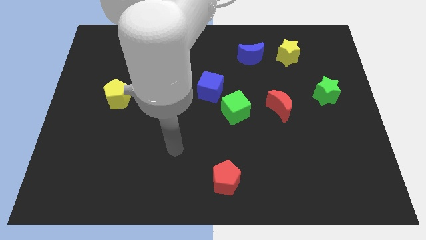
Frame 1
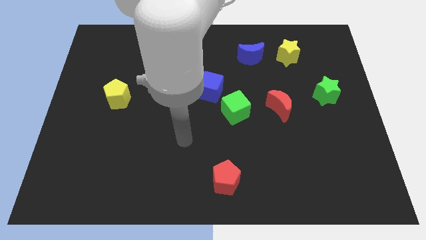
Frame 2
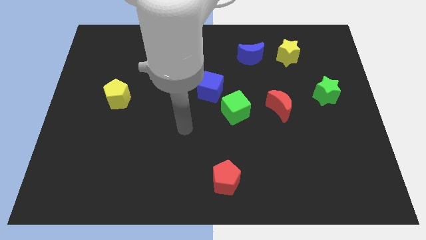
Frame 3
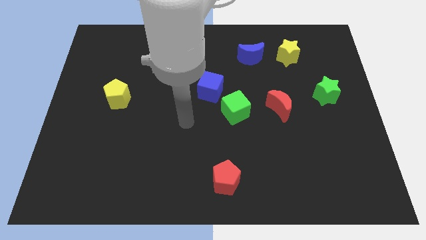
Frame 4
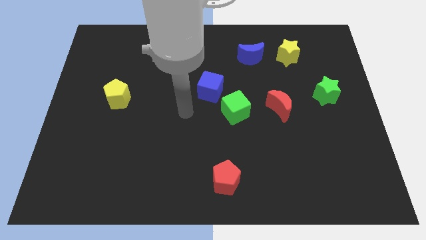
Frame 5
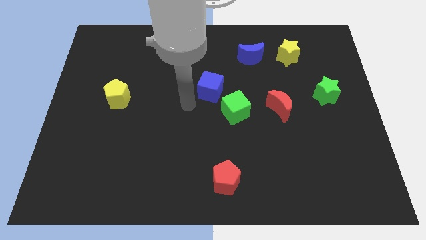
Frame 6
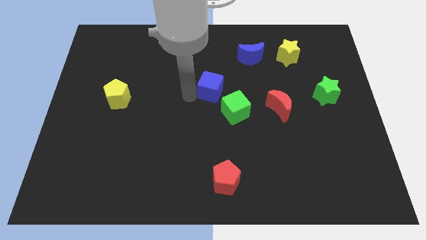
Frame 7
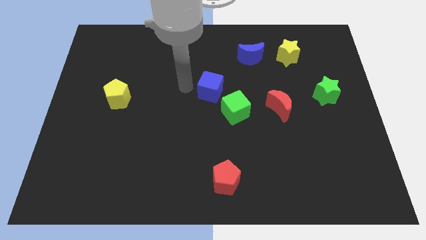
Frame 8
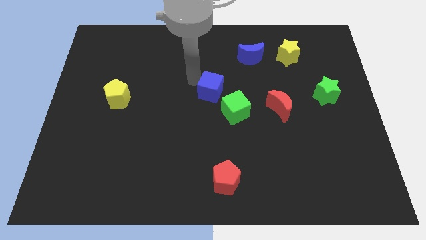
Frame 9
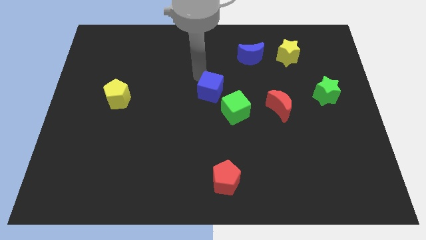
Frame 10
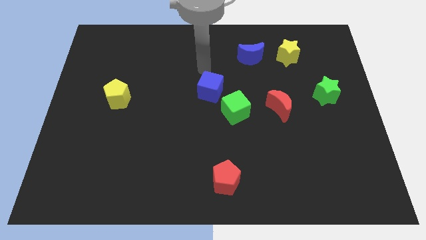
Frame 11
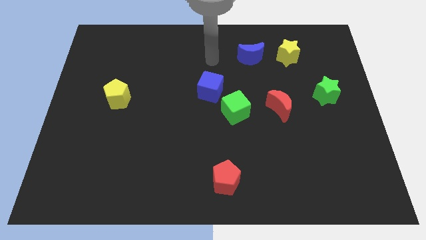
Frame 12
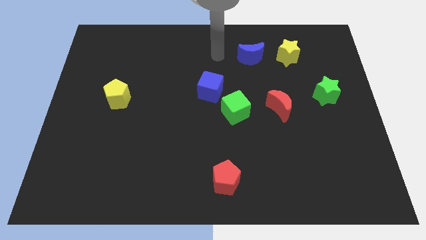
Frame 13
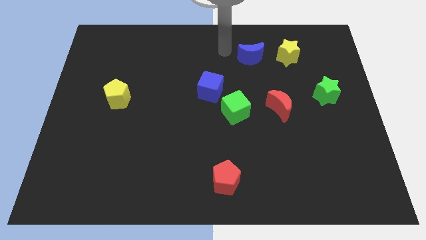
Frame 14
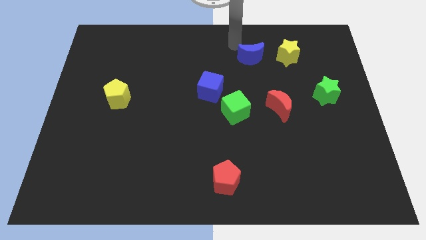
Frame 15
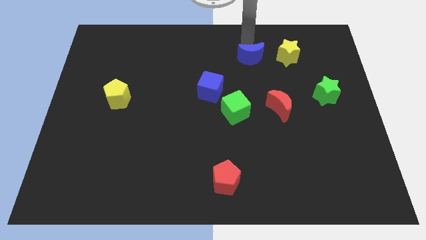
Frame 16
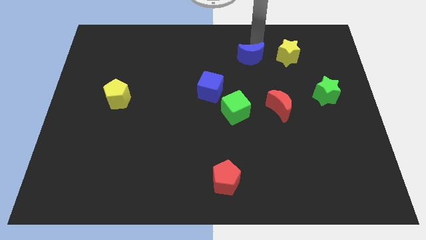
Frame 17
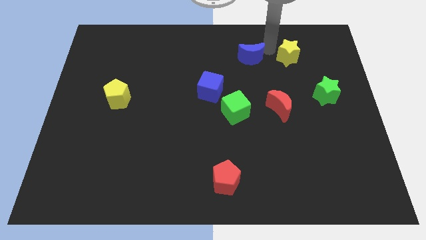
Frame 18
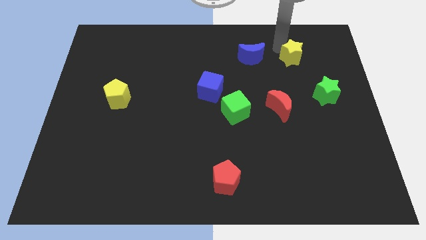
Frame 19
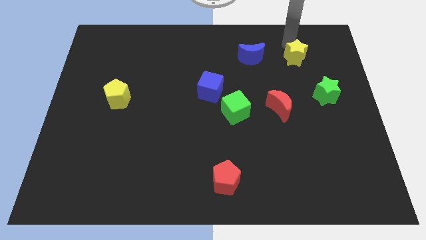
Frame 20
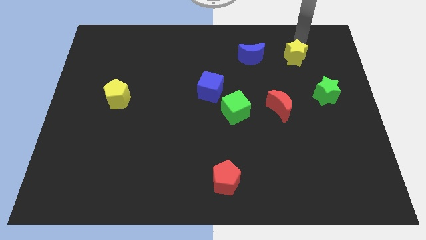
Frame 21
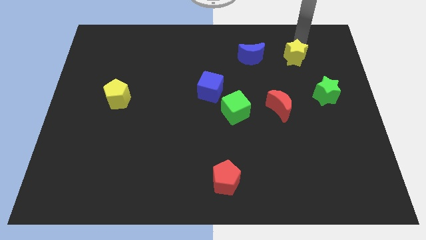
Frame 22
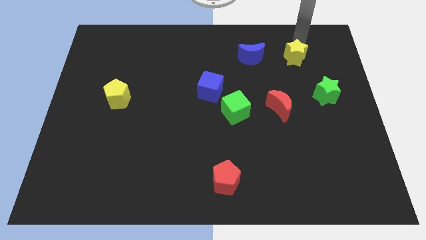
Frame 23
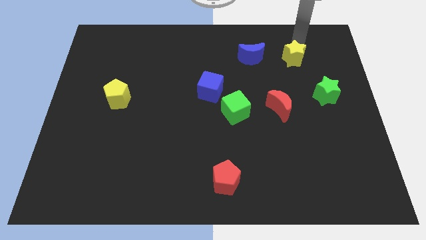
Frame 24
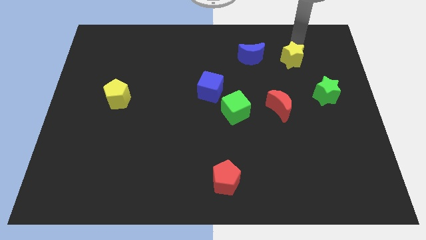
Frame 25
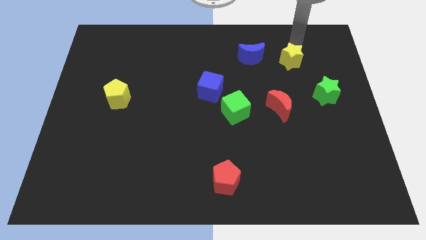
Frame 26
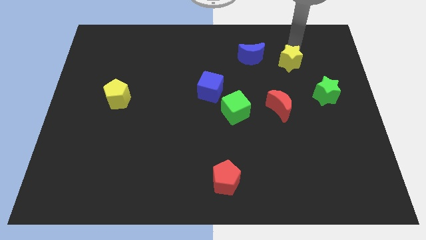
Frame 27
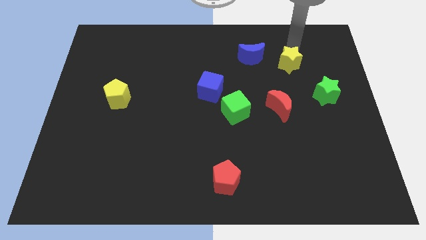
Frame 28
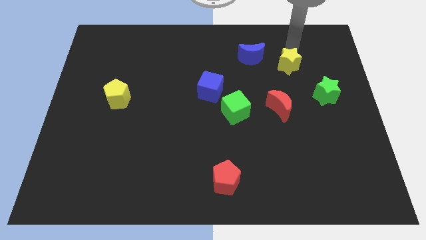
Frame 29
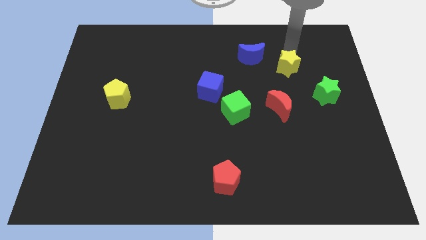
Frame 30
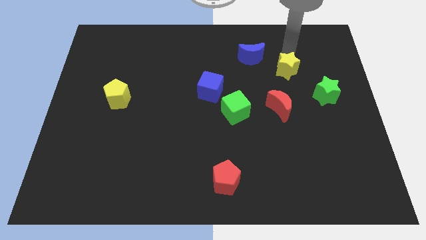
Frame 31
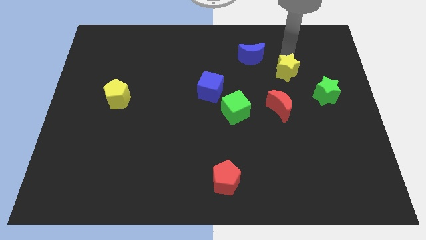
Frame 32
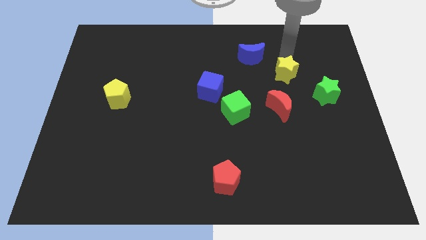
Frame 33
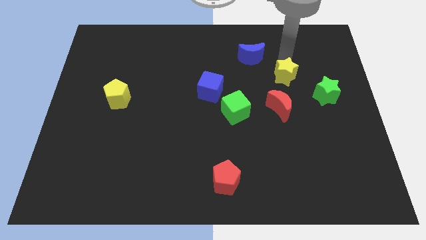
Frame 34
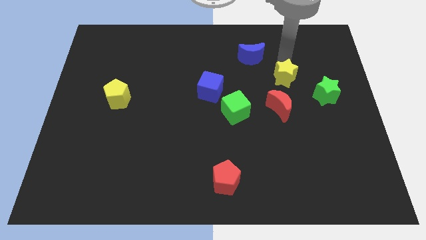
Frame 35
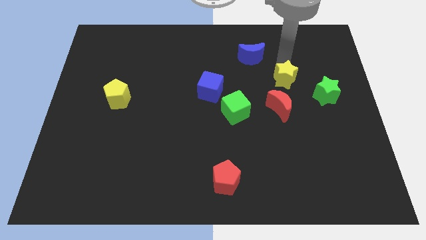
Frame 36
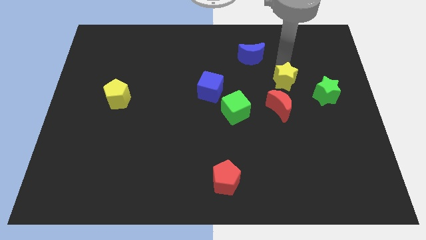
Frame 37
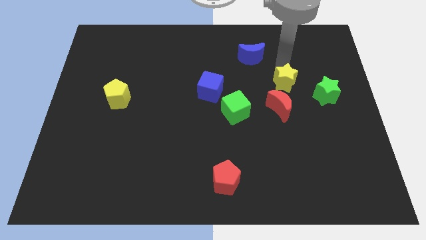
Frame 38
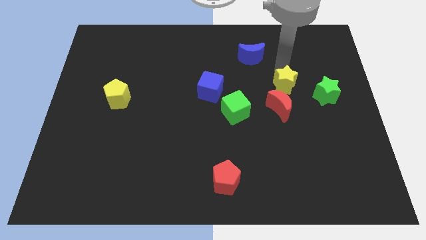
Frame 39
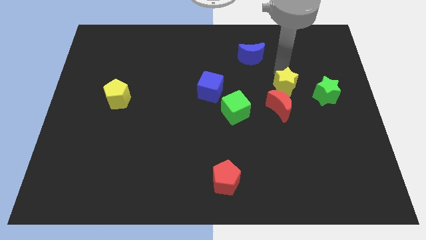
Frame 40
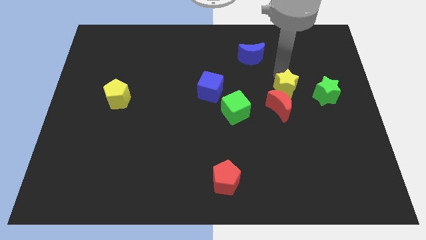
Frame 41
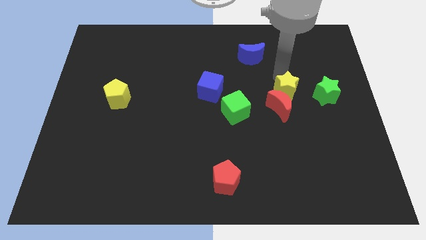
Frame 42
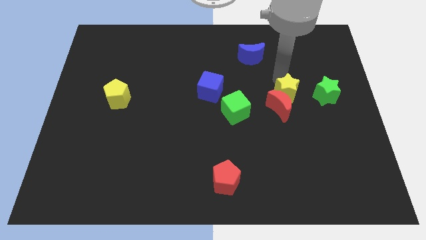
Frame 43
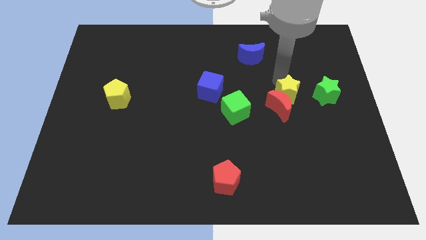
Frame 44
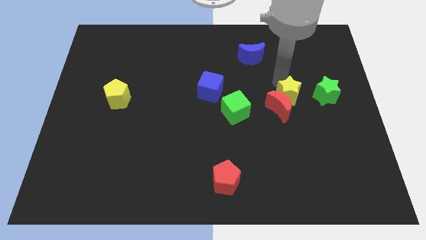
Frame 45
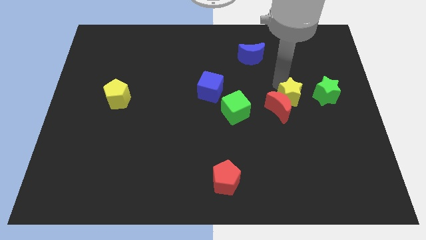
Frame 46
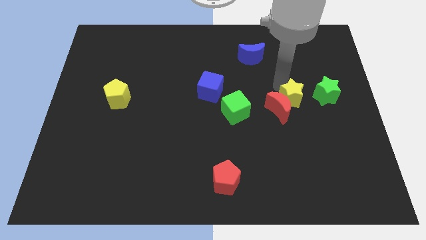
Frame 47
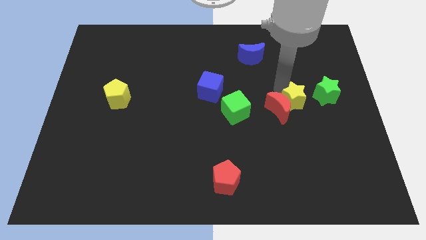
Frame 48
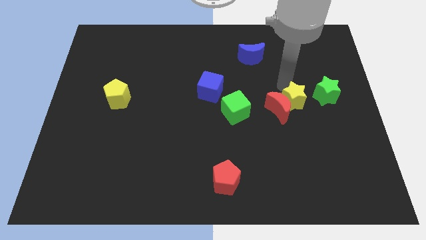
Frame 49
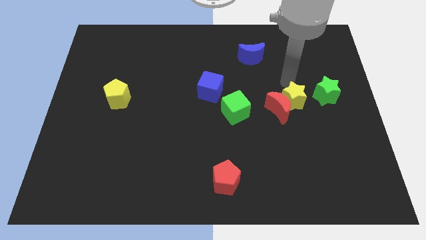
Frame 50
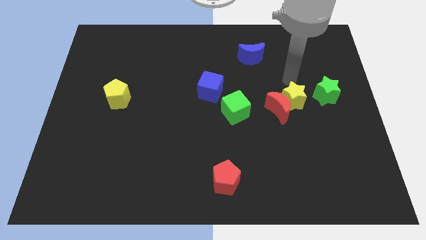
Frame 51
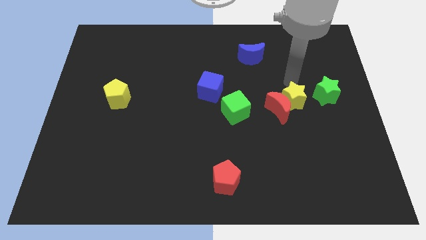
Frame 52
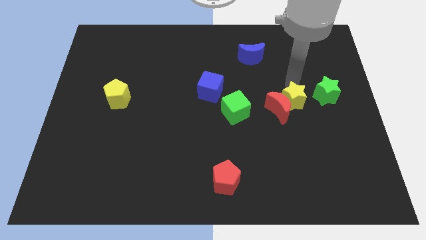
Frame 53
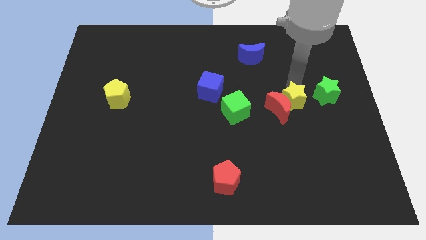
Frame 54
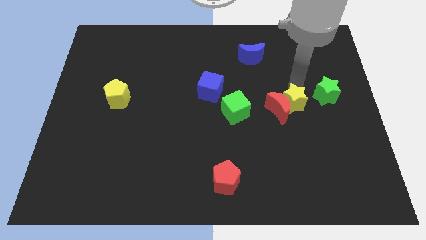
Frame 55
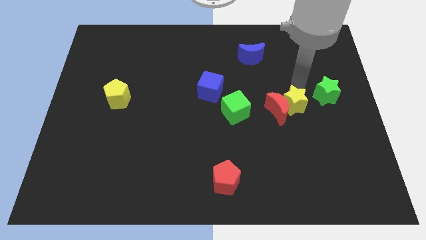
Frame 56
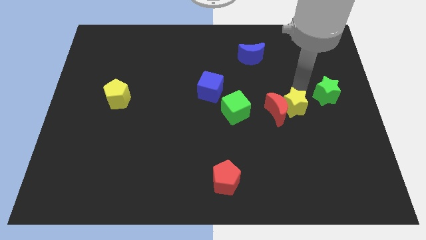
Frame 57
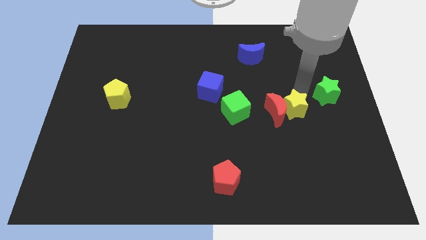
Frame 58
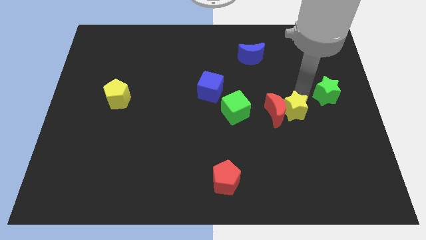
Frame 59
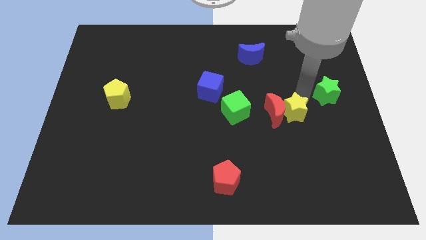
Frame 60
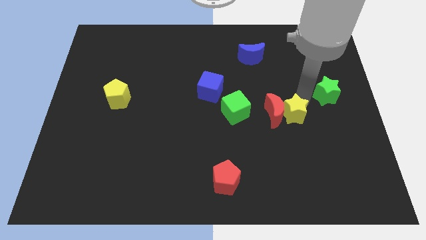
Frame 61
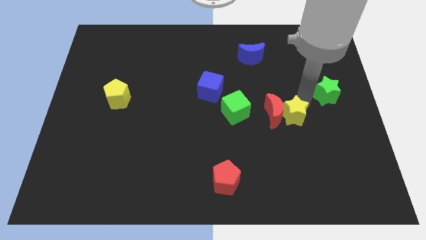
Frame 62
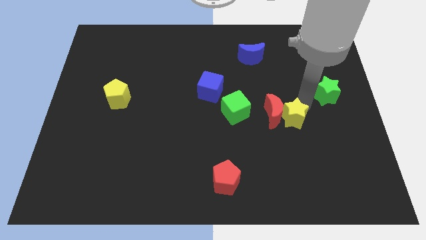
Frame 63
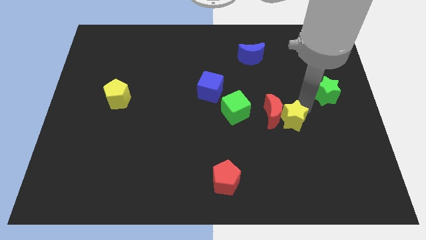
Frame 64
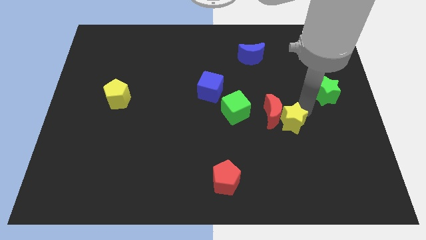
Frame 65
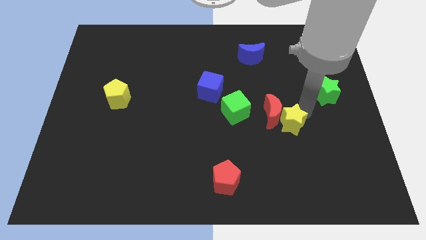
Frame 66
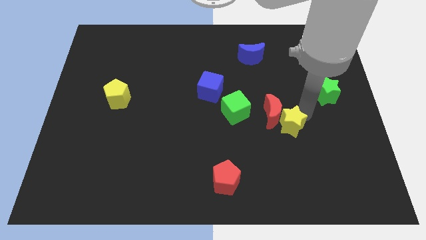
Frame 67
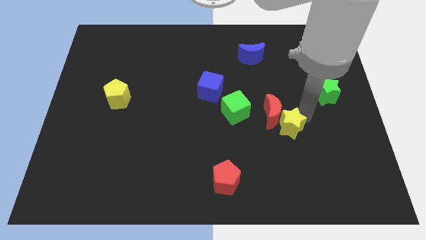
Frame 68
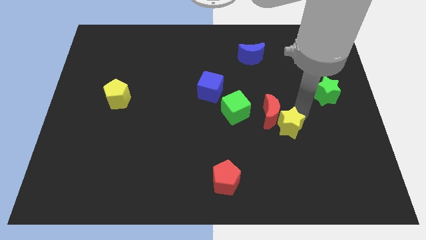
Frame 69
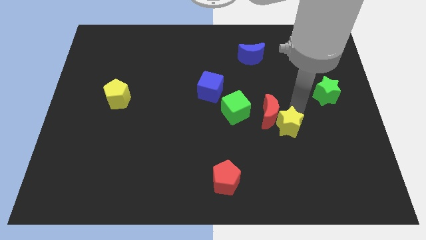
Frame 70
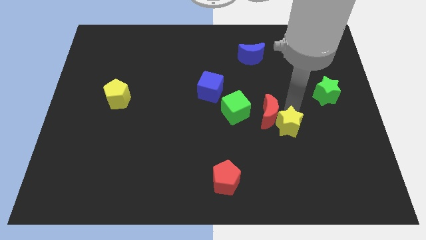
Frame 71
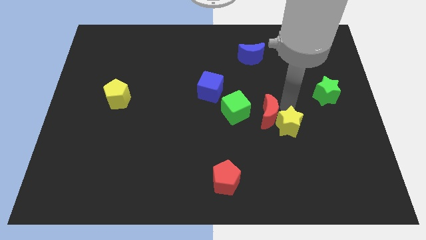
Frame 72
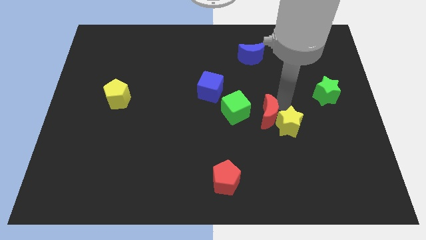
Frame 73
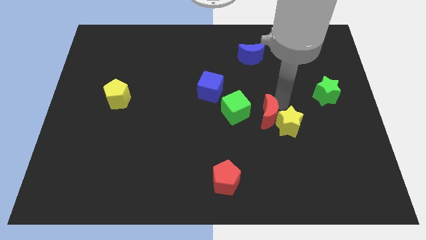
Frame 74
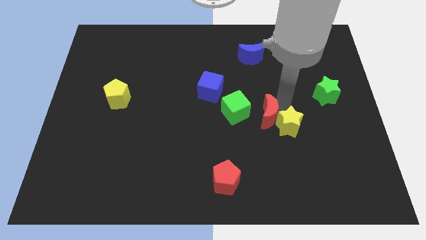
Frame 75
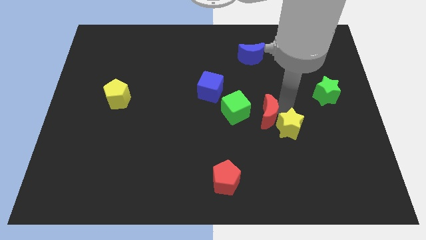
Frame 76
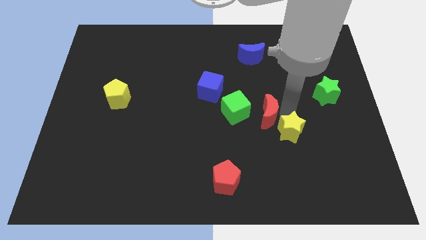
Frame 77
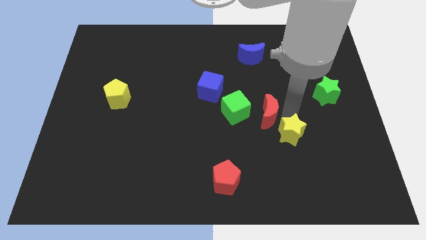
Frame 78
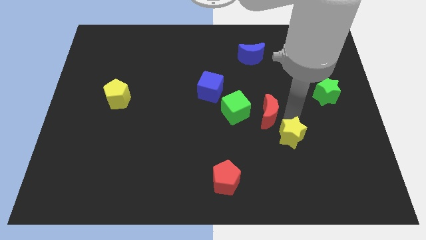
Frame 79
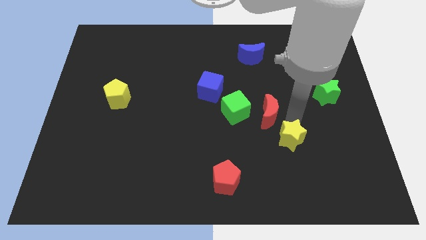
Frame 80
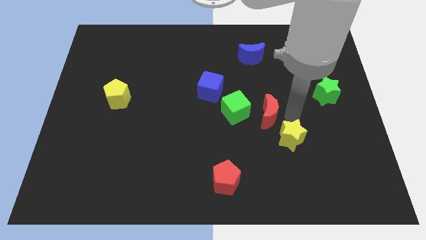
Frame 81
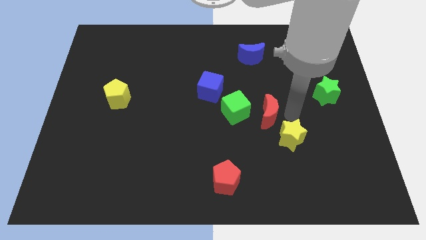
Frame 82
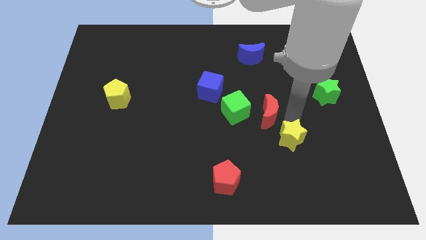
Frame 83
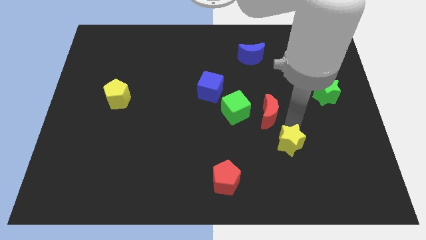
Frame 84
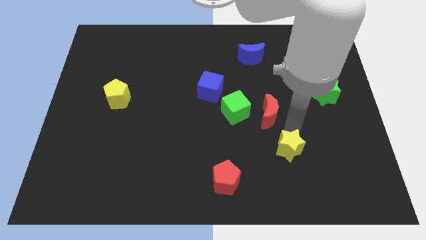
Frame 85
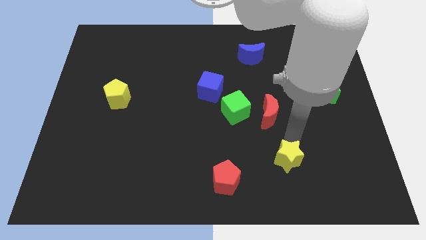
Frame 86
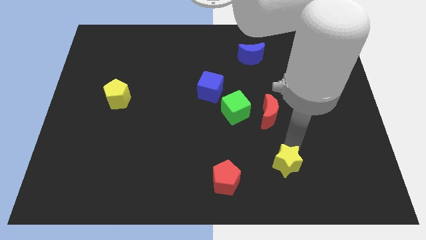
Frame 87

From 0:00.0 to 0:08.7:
move the yellow star to the right of the red pentagon
